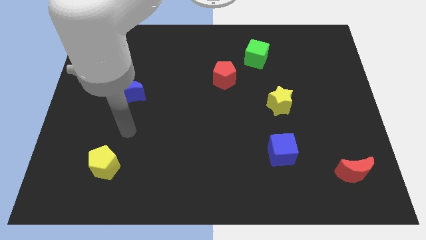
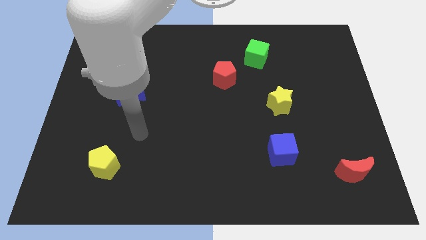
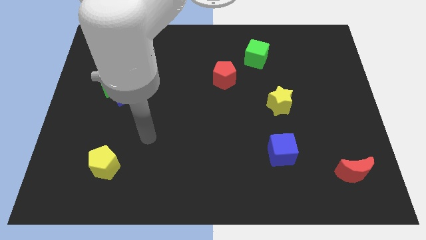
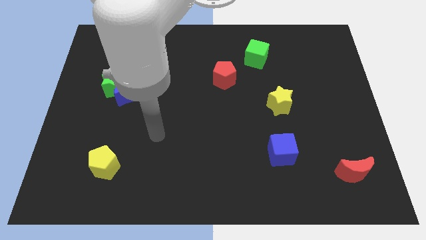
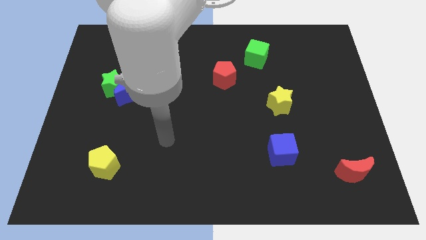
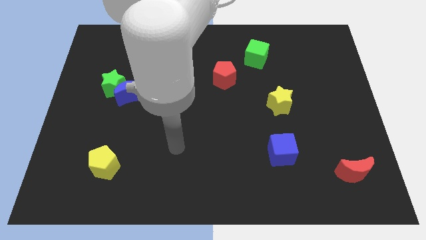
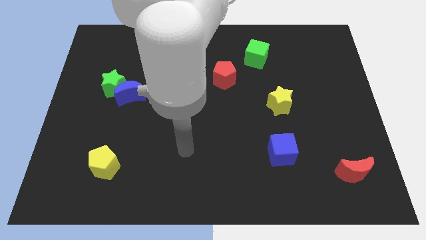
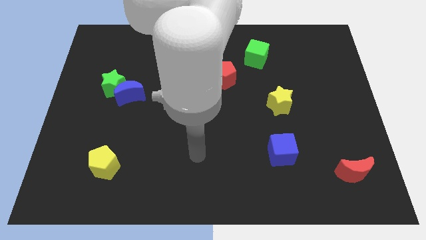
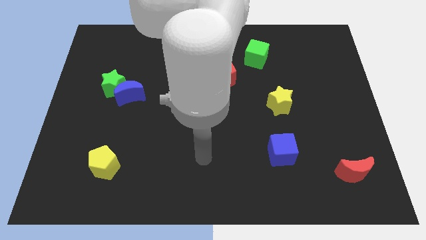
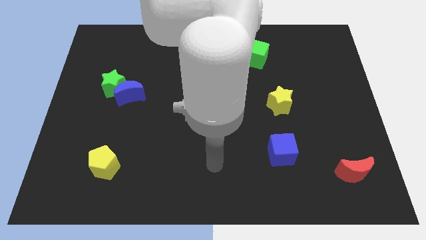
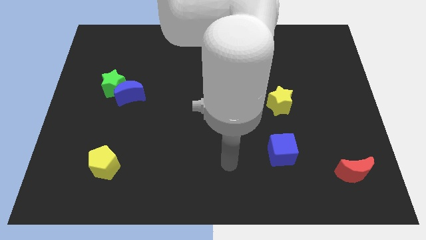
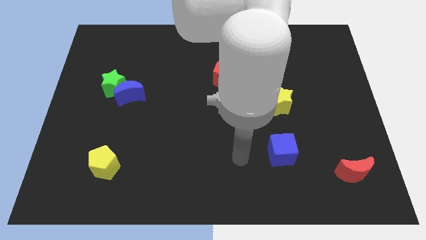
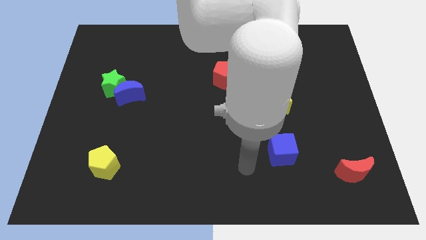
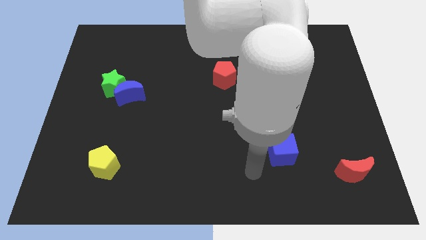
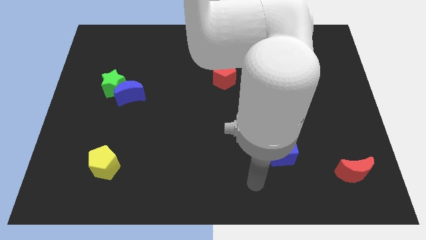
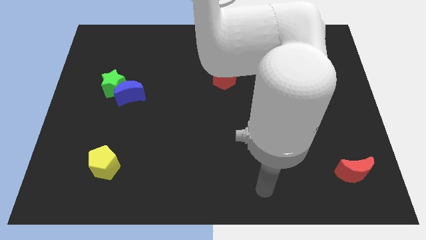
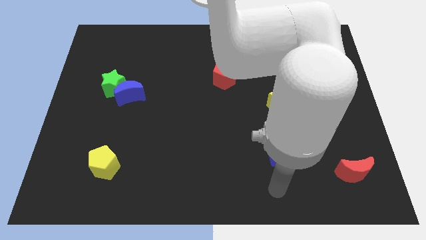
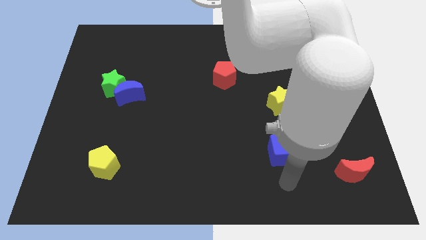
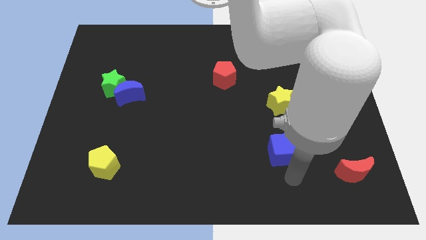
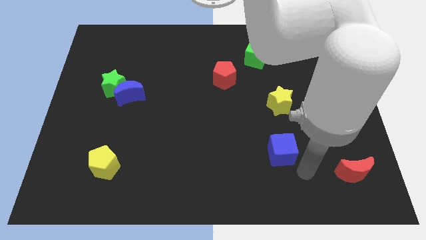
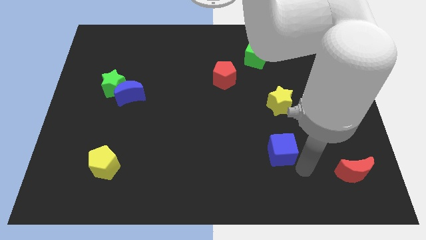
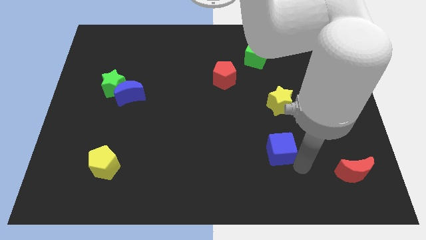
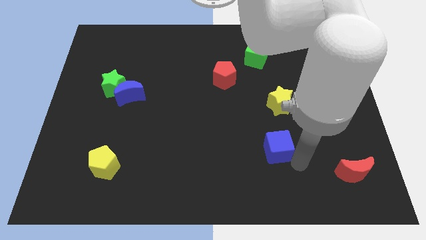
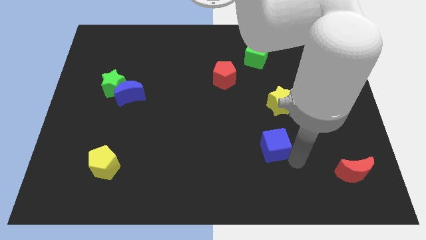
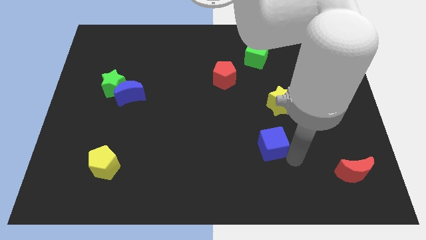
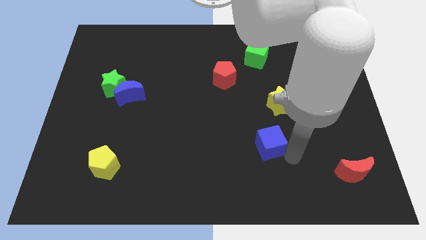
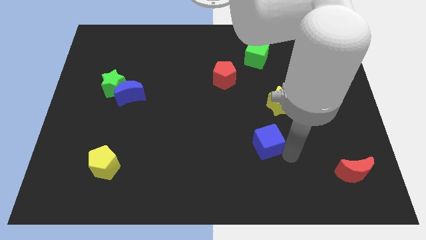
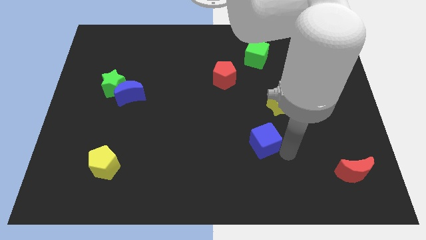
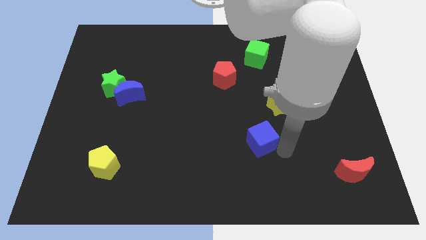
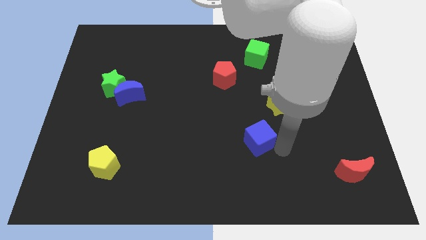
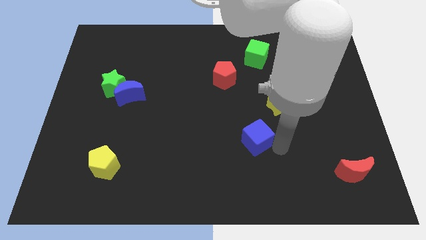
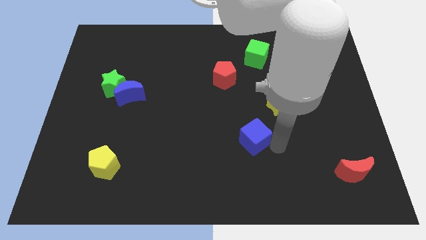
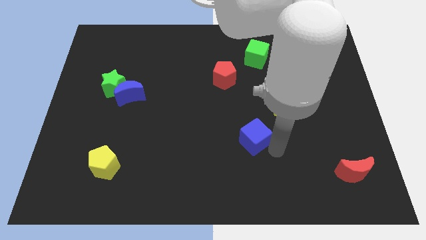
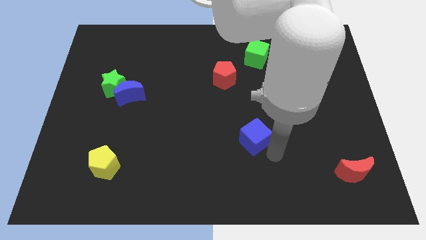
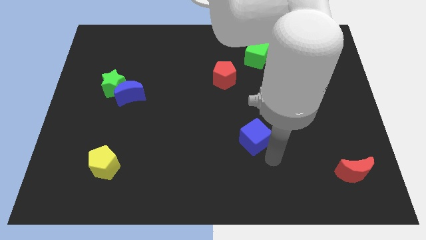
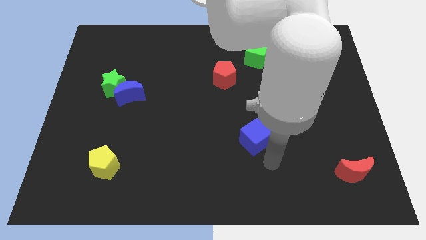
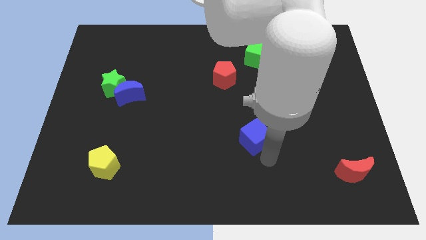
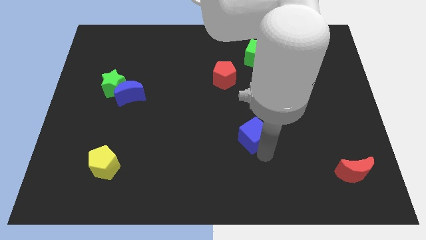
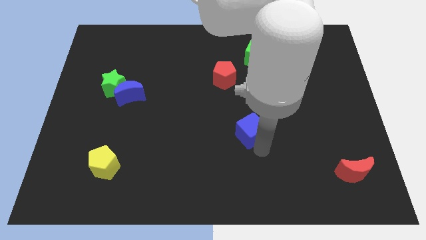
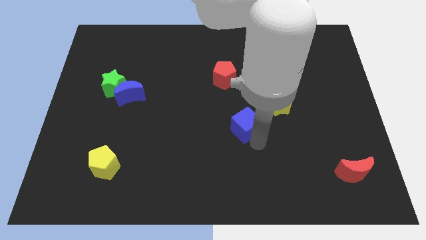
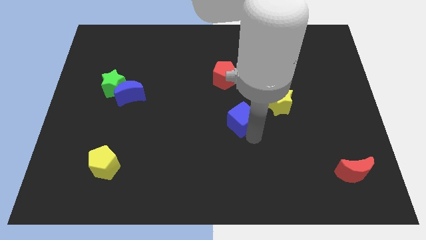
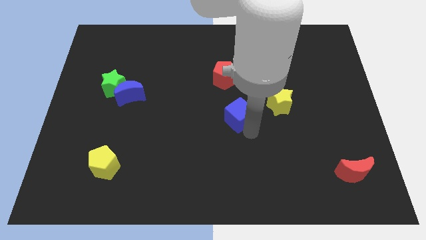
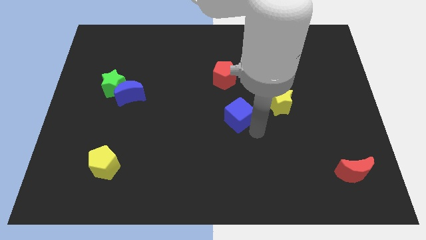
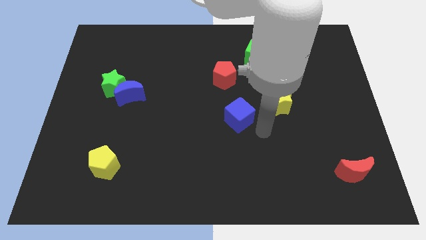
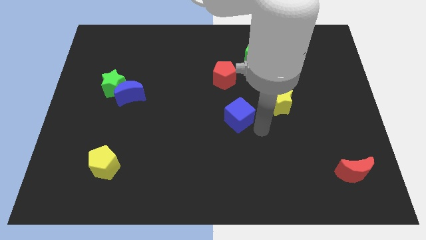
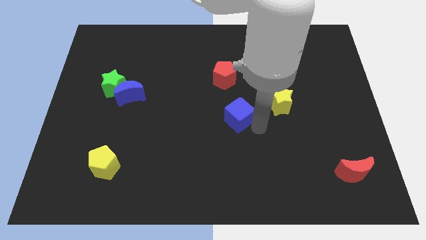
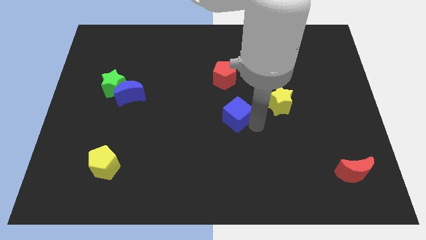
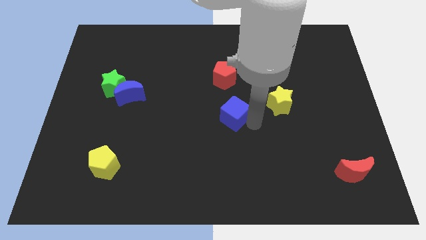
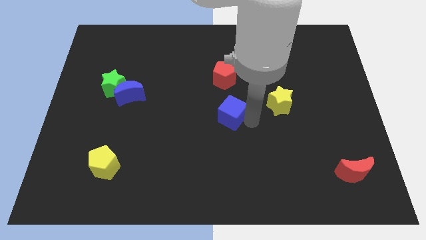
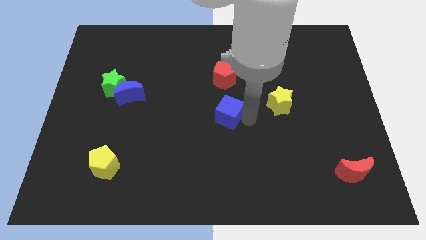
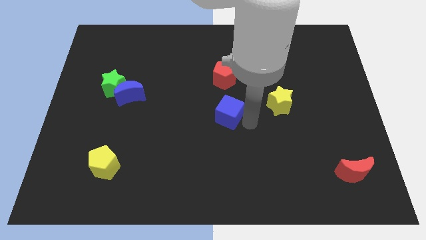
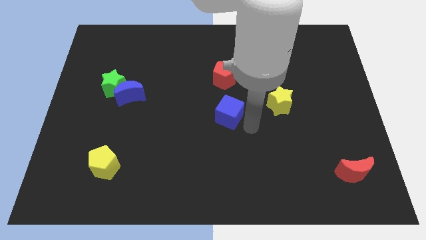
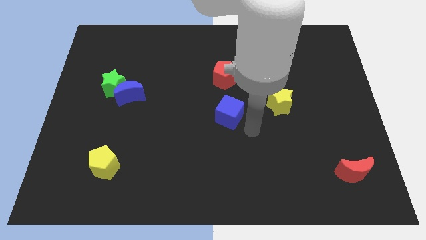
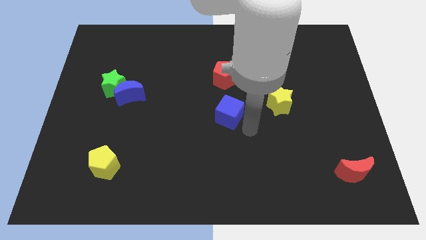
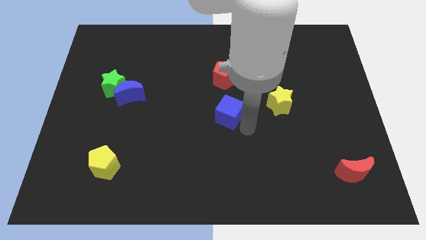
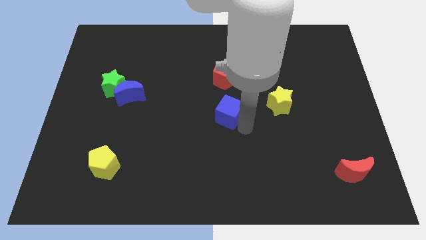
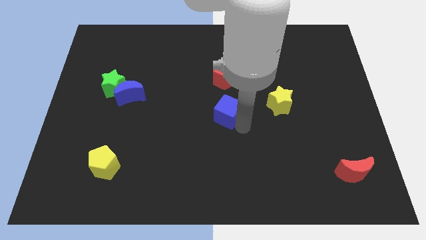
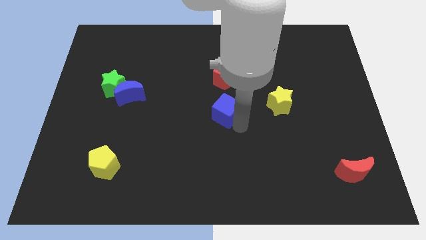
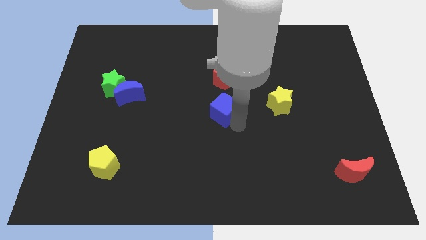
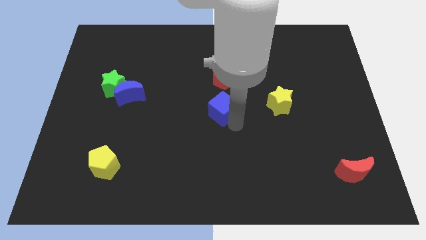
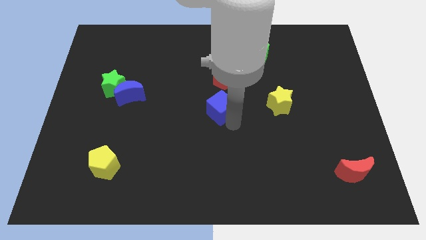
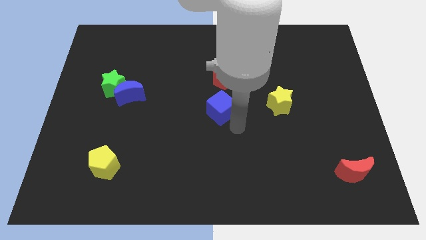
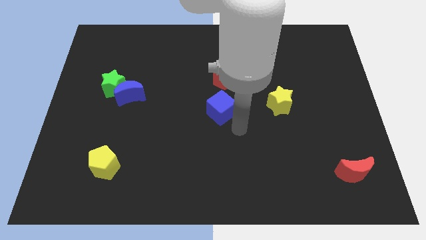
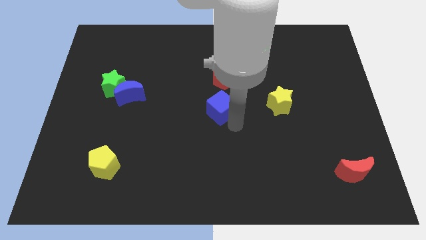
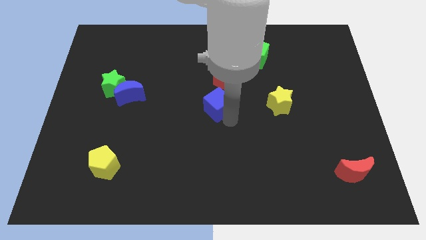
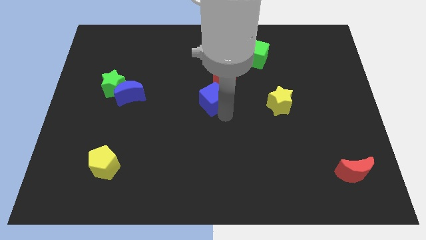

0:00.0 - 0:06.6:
push the blue cube diagonally down and to the left of the red pentagon
